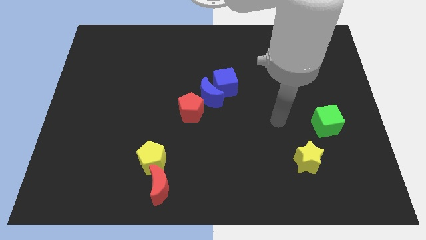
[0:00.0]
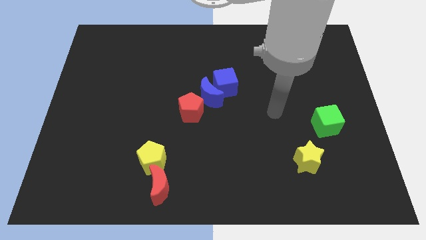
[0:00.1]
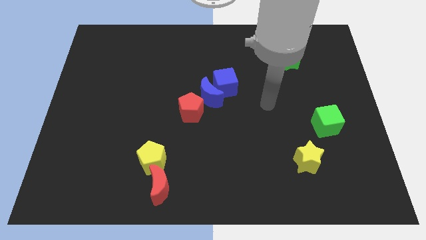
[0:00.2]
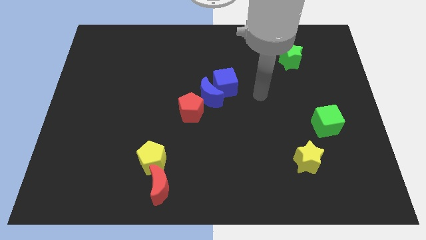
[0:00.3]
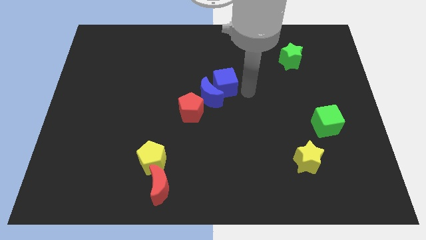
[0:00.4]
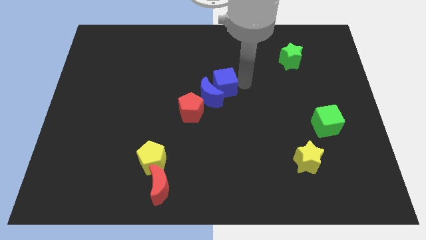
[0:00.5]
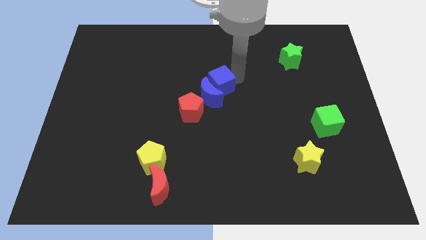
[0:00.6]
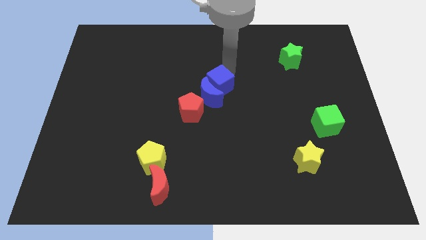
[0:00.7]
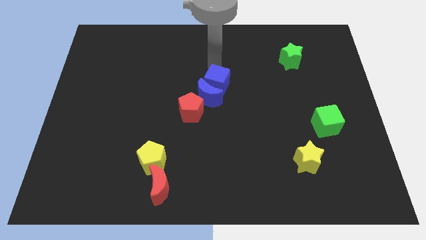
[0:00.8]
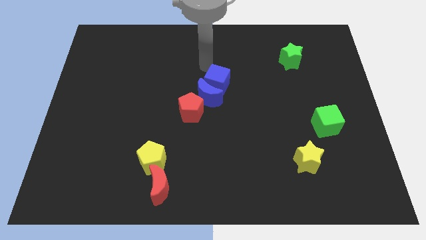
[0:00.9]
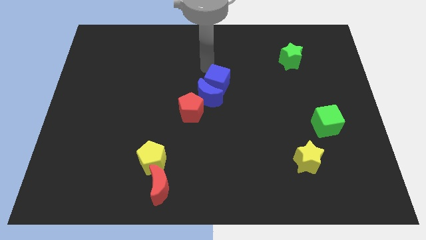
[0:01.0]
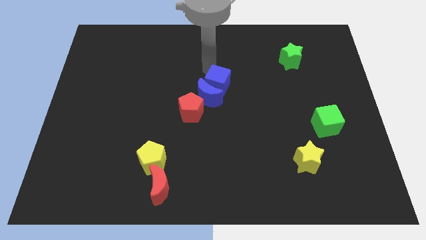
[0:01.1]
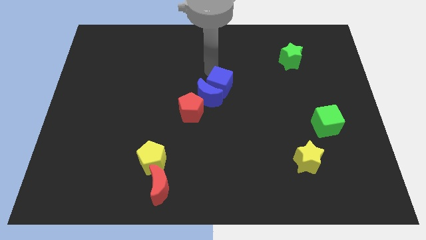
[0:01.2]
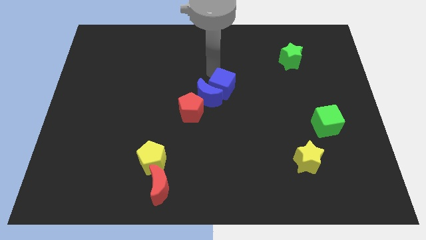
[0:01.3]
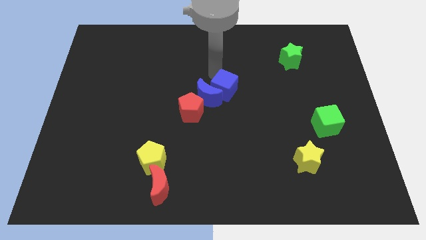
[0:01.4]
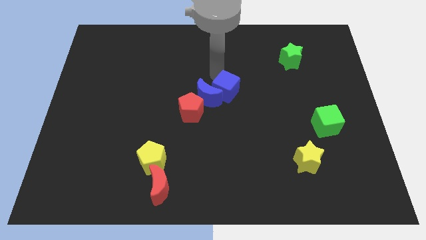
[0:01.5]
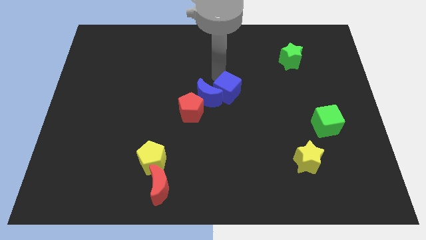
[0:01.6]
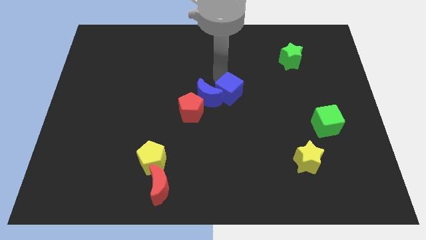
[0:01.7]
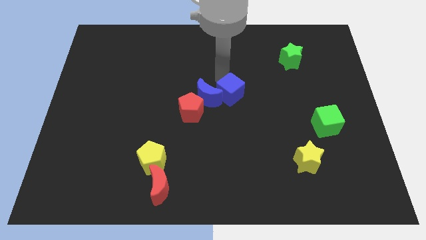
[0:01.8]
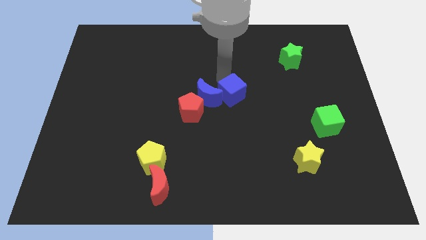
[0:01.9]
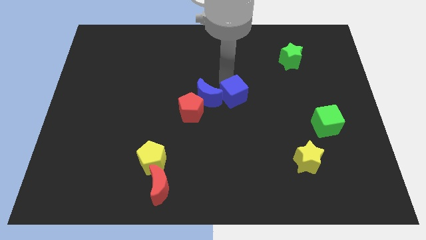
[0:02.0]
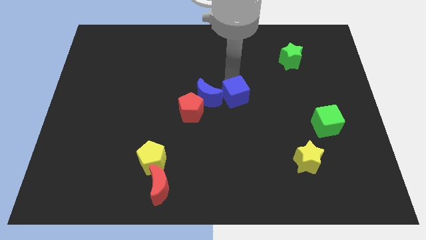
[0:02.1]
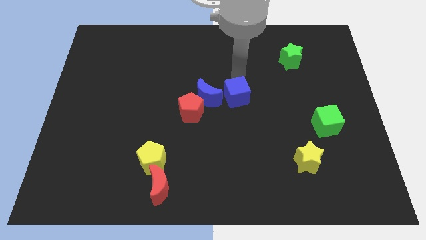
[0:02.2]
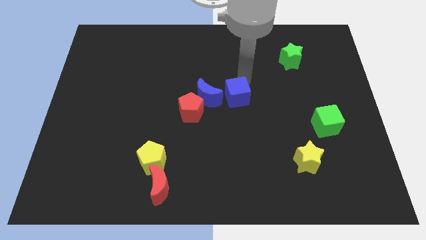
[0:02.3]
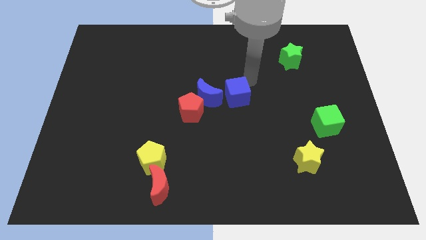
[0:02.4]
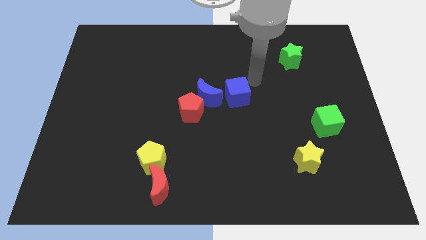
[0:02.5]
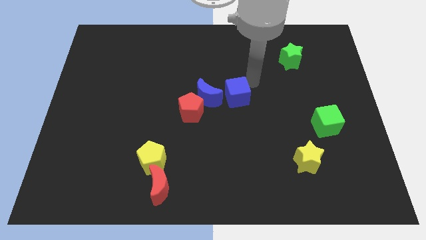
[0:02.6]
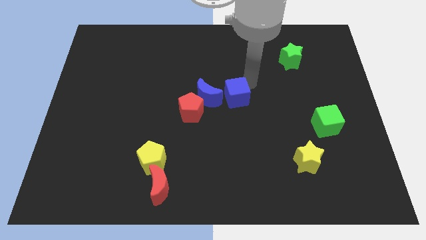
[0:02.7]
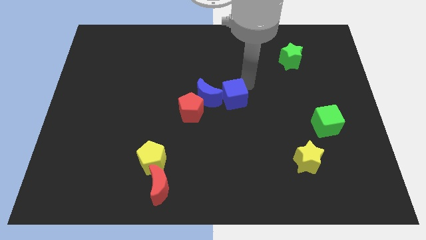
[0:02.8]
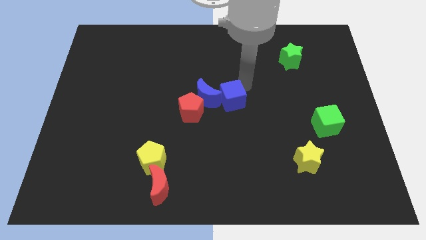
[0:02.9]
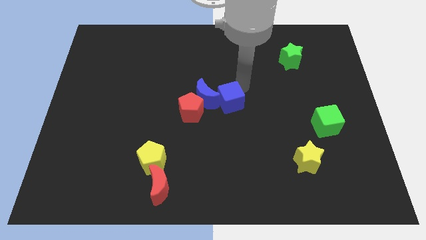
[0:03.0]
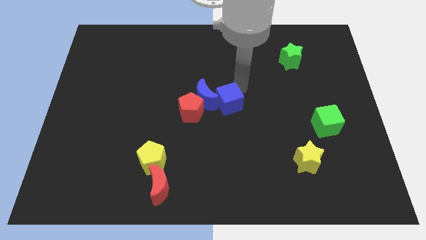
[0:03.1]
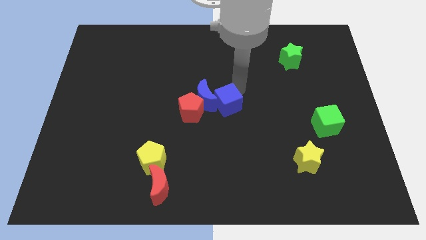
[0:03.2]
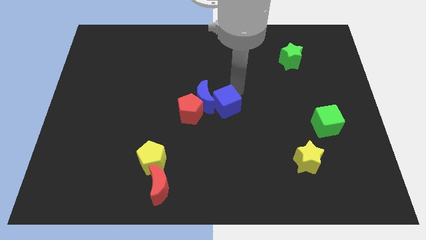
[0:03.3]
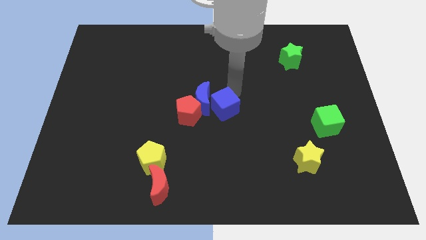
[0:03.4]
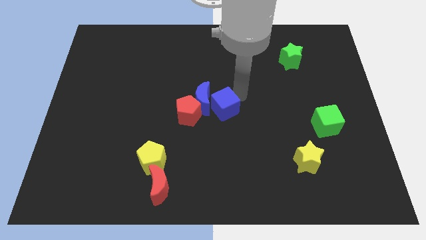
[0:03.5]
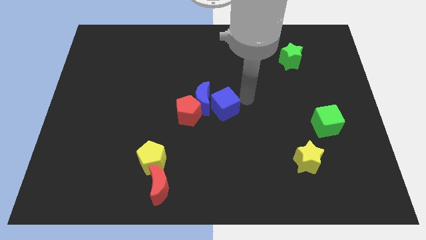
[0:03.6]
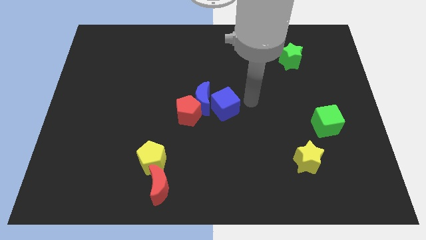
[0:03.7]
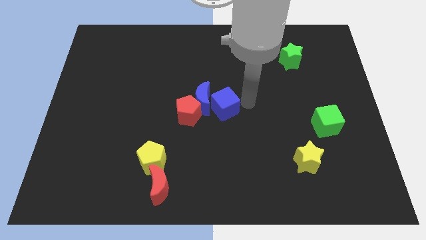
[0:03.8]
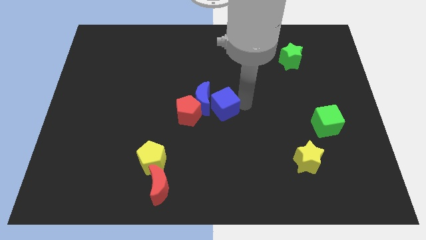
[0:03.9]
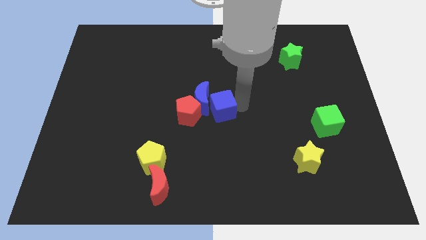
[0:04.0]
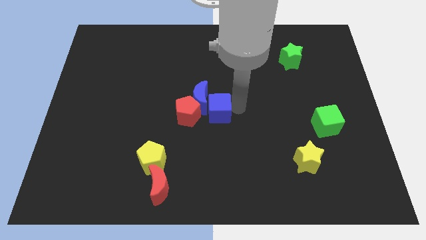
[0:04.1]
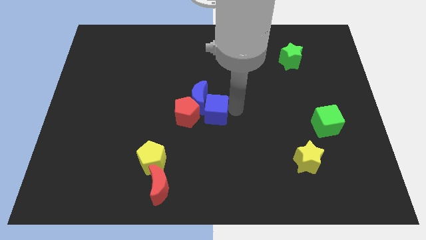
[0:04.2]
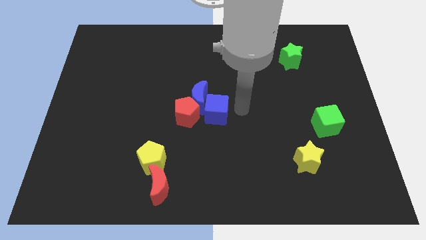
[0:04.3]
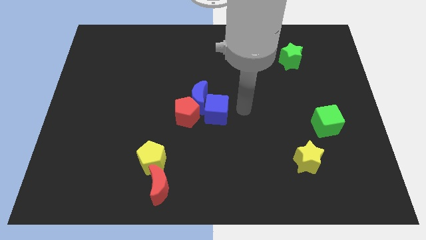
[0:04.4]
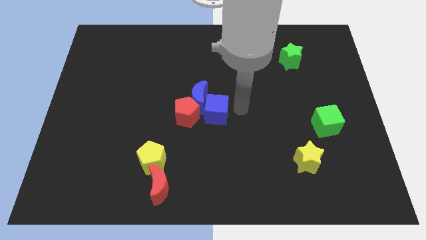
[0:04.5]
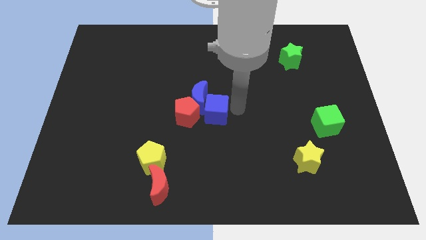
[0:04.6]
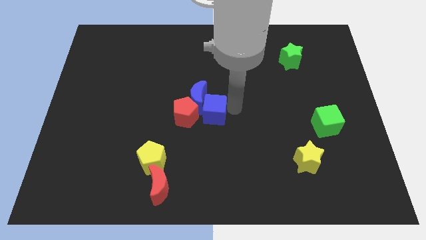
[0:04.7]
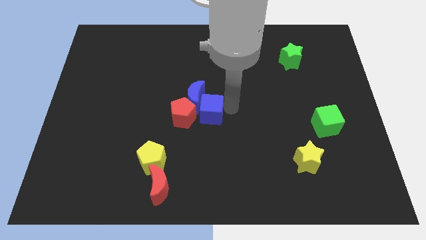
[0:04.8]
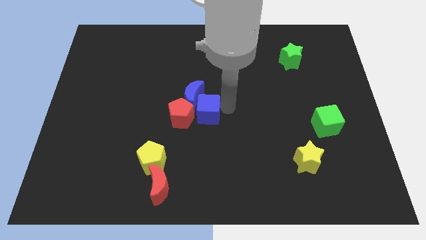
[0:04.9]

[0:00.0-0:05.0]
slide the blue cube to the red pentagon

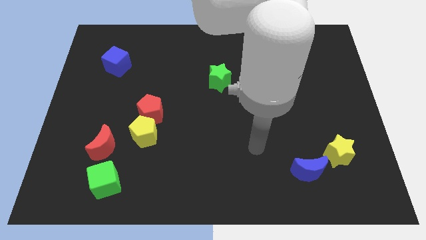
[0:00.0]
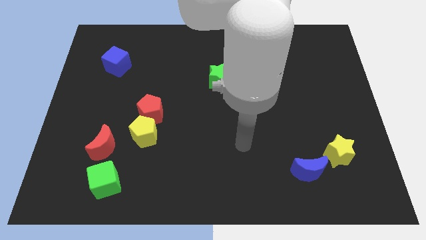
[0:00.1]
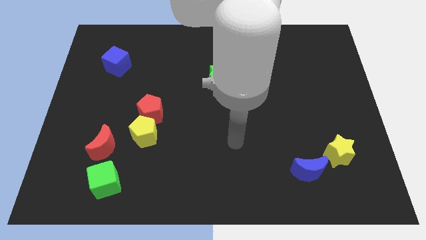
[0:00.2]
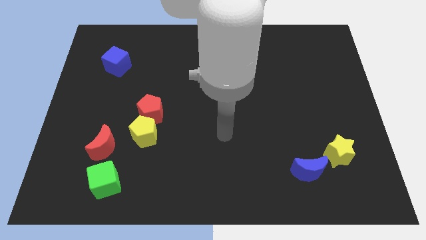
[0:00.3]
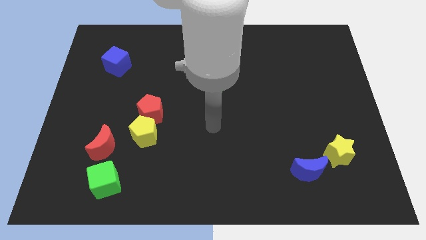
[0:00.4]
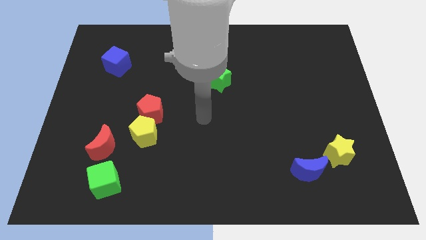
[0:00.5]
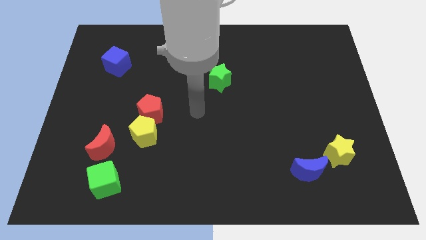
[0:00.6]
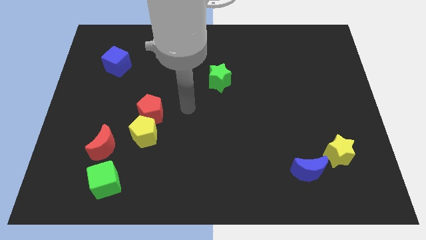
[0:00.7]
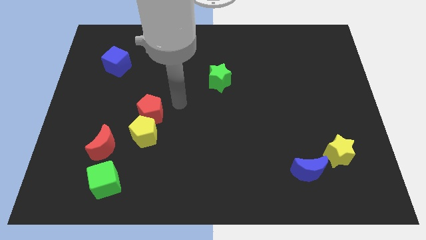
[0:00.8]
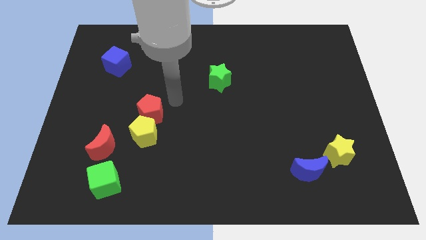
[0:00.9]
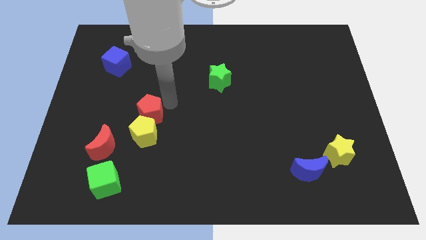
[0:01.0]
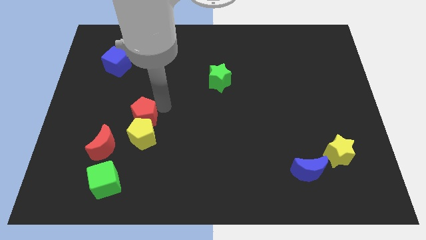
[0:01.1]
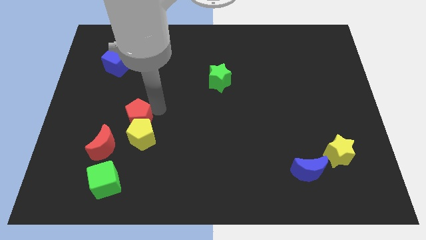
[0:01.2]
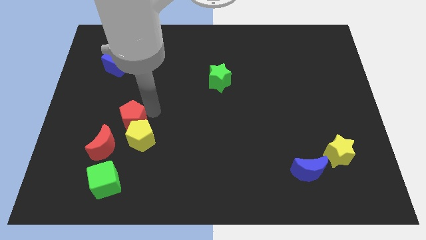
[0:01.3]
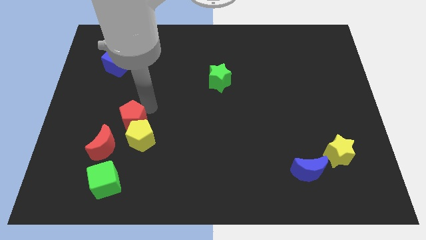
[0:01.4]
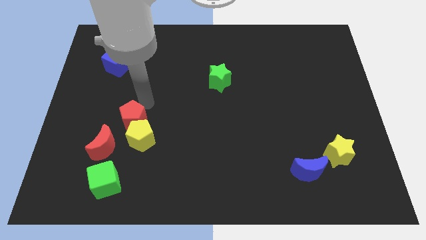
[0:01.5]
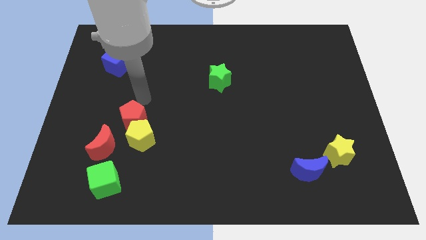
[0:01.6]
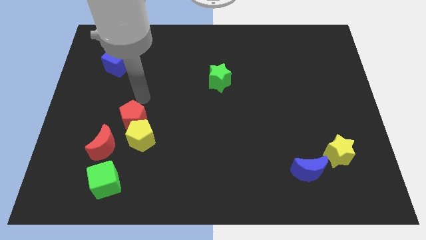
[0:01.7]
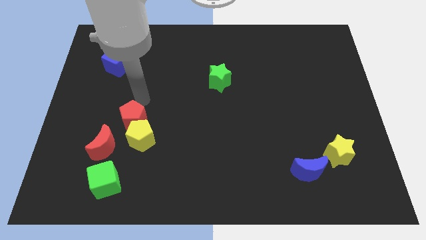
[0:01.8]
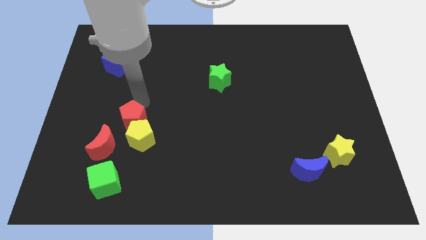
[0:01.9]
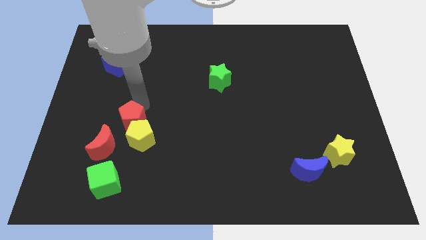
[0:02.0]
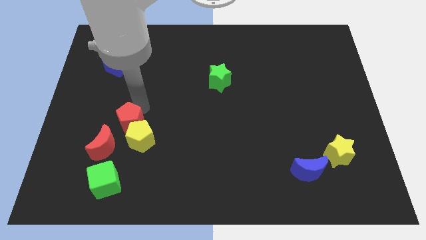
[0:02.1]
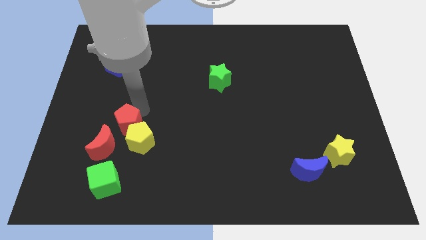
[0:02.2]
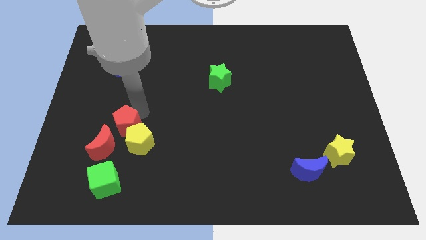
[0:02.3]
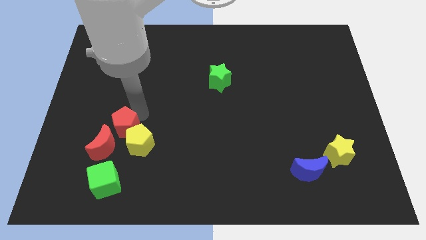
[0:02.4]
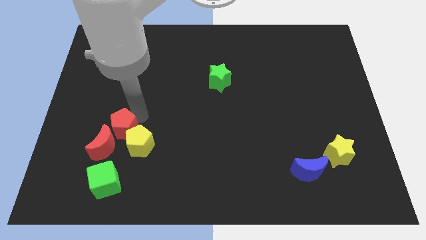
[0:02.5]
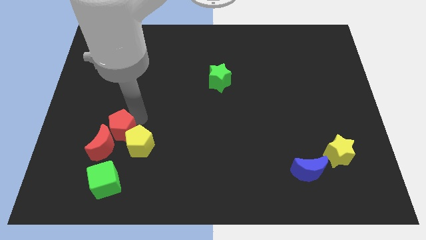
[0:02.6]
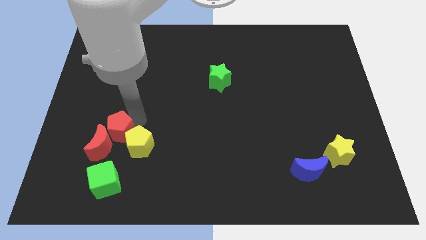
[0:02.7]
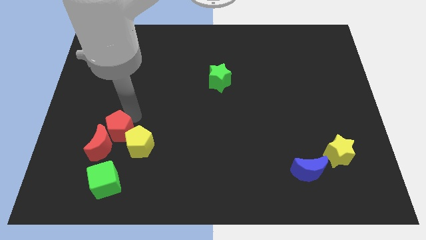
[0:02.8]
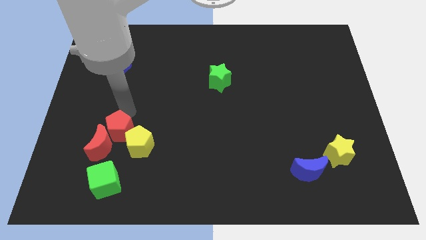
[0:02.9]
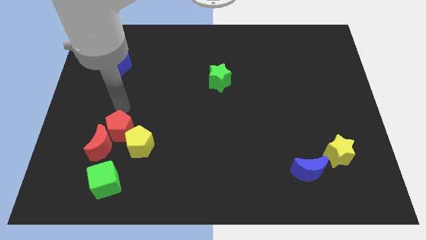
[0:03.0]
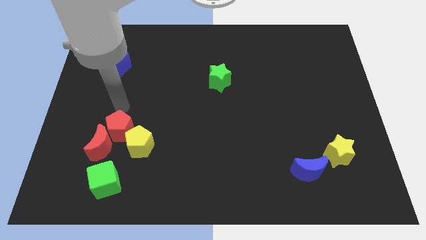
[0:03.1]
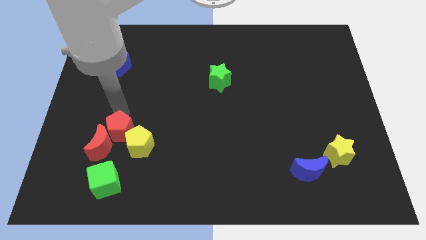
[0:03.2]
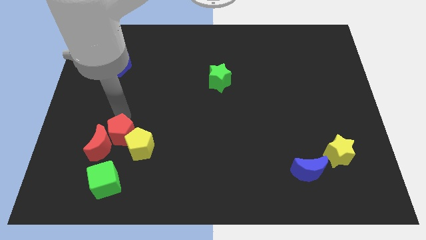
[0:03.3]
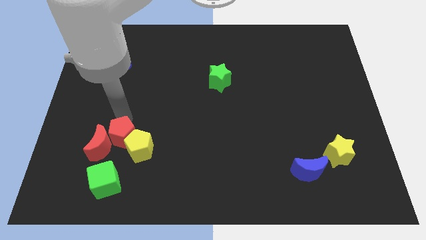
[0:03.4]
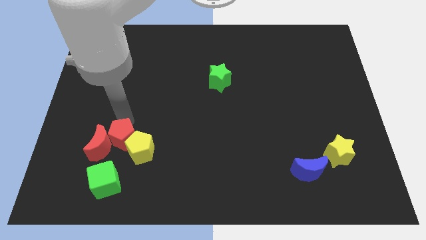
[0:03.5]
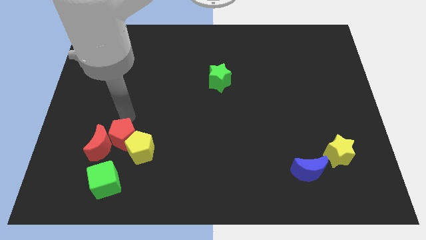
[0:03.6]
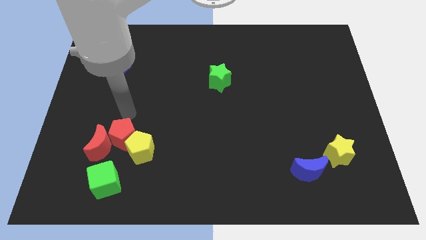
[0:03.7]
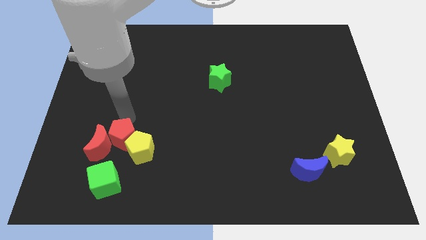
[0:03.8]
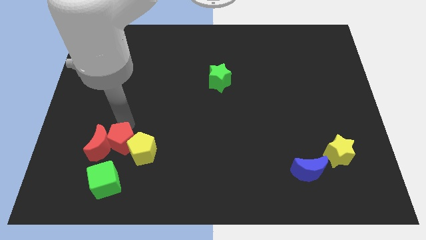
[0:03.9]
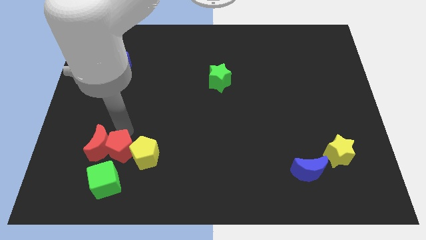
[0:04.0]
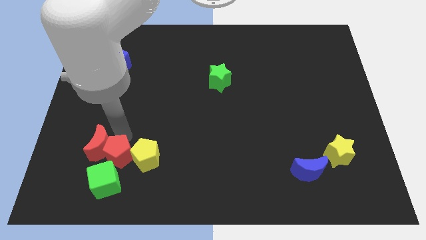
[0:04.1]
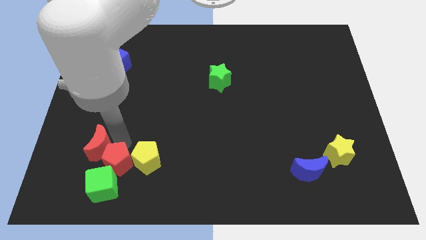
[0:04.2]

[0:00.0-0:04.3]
put the red pentagon towards the green cube
